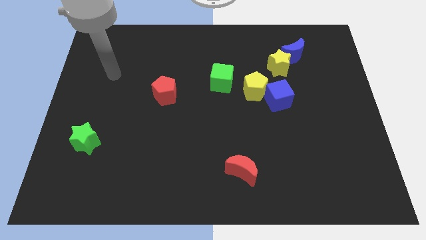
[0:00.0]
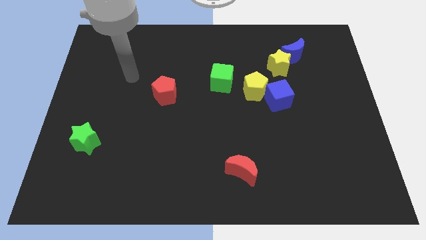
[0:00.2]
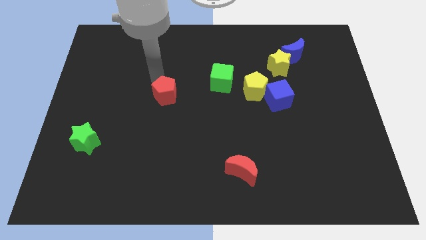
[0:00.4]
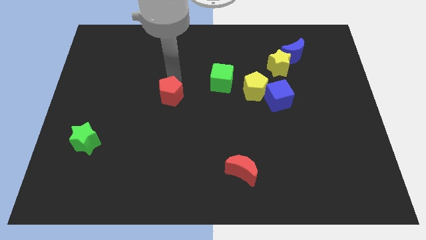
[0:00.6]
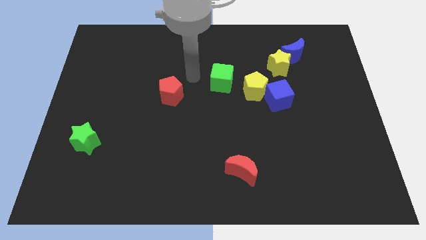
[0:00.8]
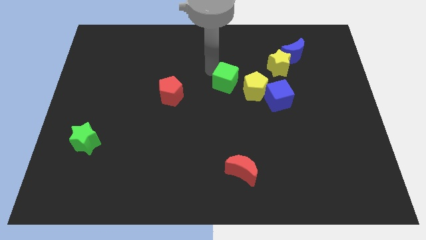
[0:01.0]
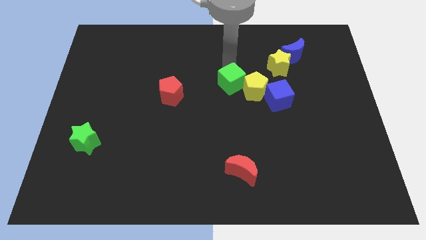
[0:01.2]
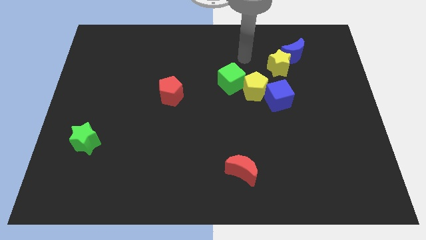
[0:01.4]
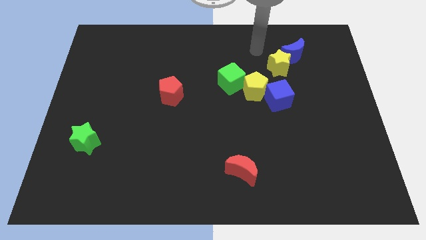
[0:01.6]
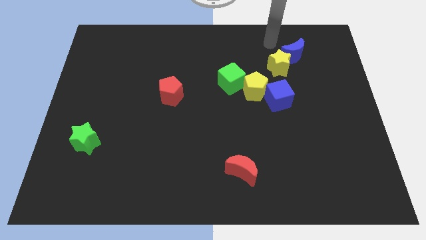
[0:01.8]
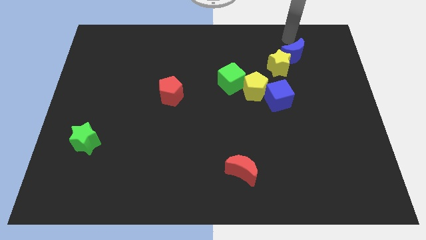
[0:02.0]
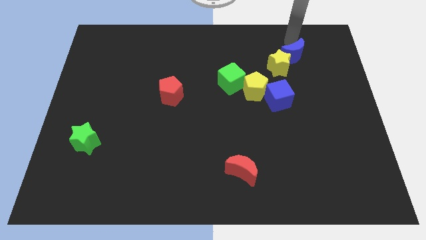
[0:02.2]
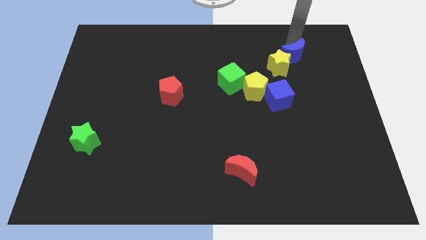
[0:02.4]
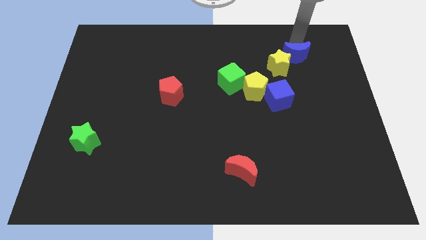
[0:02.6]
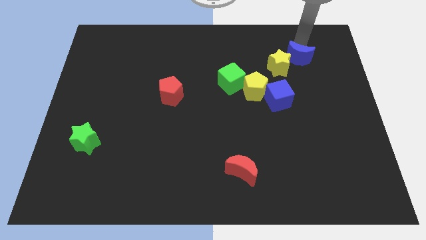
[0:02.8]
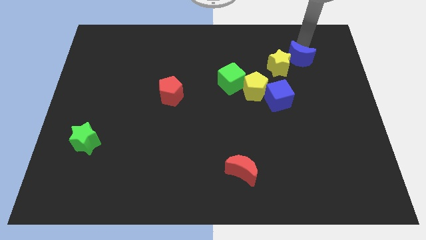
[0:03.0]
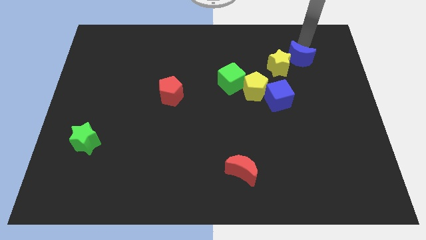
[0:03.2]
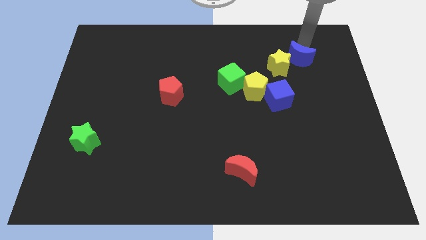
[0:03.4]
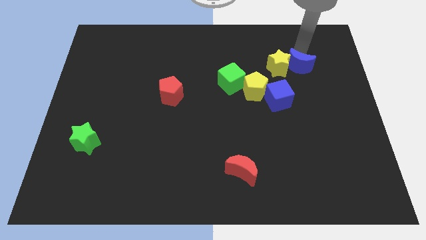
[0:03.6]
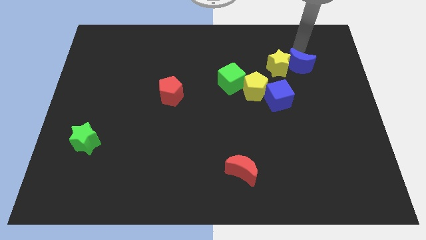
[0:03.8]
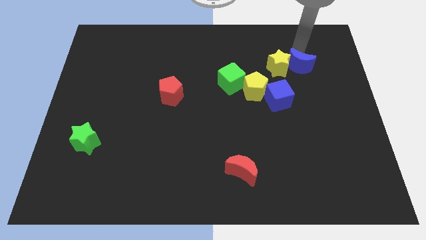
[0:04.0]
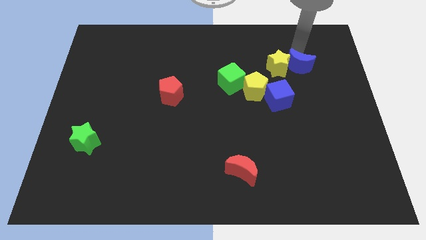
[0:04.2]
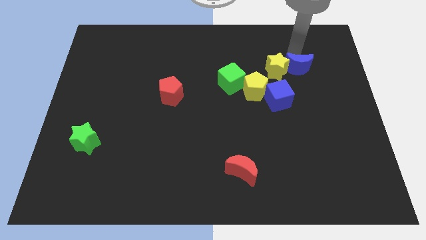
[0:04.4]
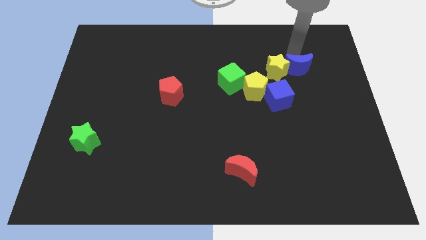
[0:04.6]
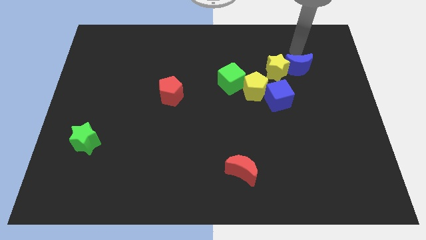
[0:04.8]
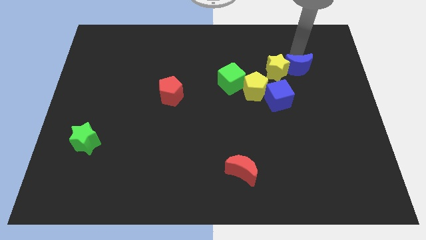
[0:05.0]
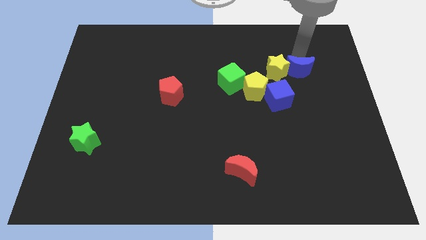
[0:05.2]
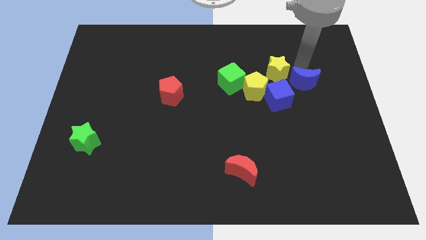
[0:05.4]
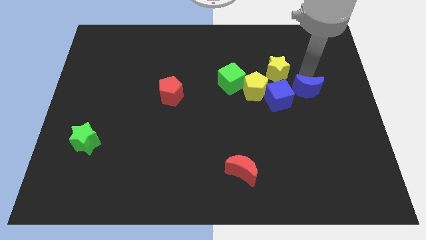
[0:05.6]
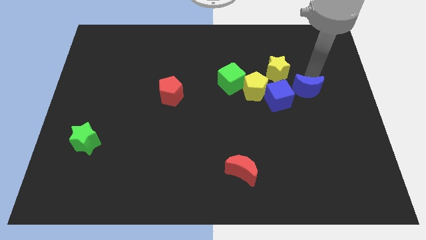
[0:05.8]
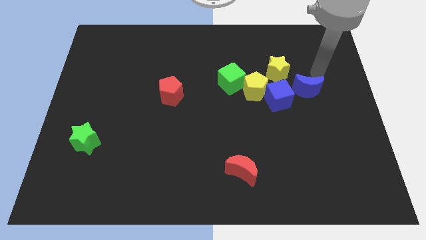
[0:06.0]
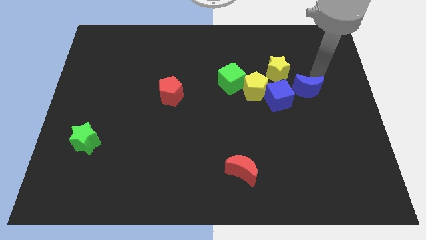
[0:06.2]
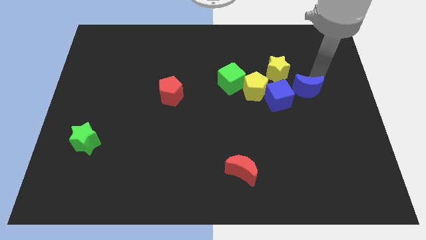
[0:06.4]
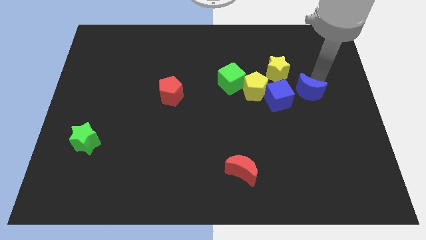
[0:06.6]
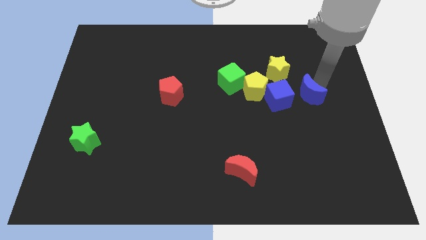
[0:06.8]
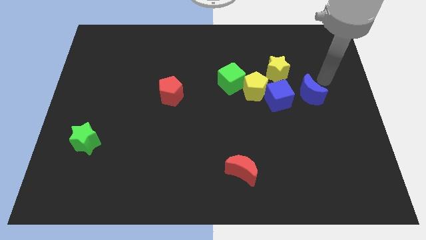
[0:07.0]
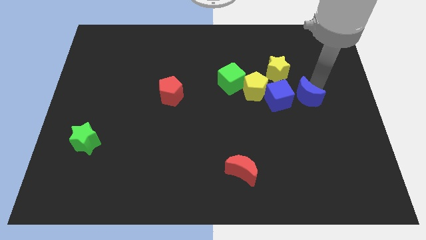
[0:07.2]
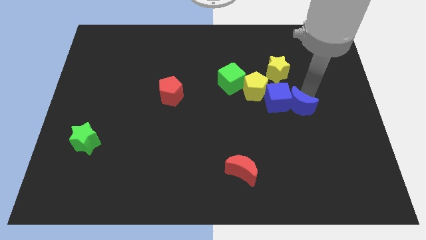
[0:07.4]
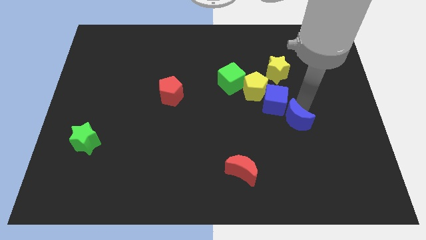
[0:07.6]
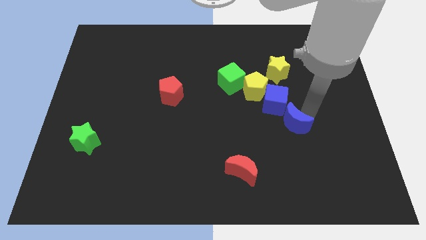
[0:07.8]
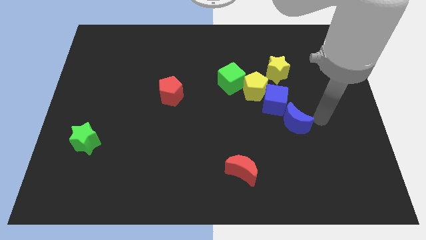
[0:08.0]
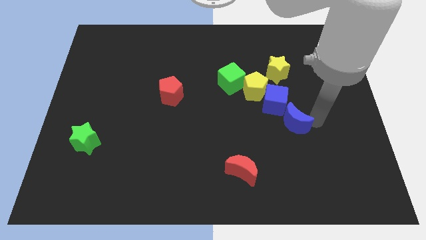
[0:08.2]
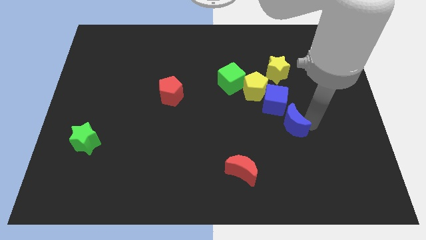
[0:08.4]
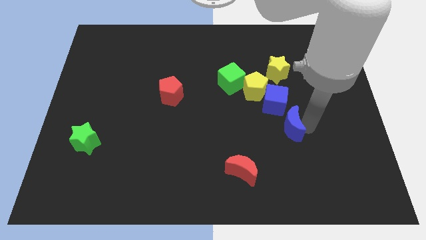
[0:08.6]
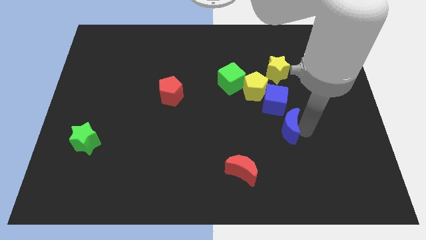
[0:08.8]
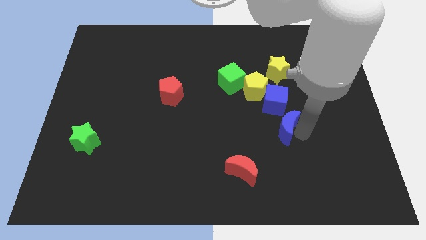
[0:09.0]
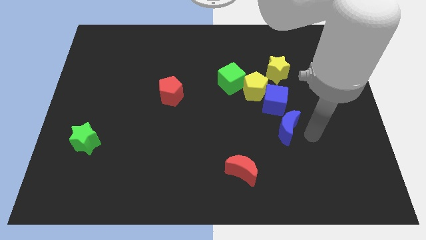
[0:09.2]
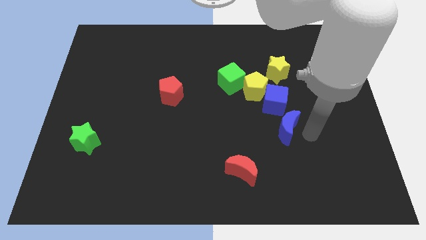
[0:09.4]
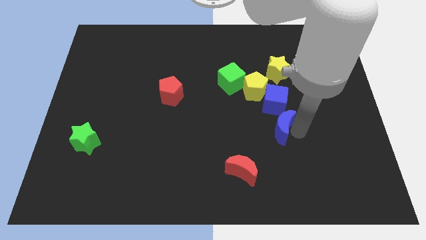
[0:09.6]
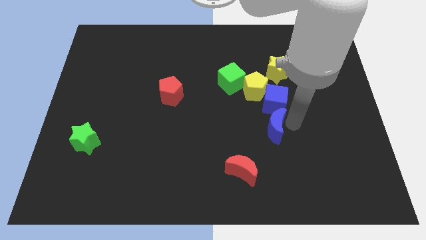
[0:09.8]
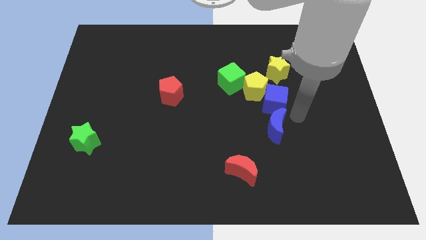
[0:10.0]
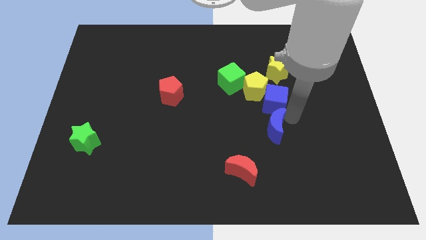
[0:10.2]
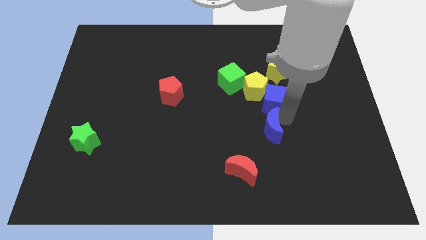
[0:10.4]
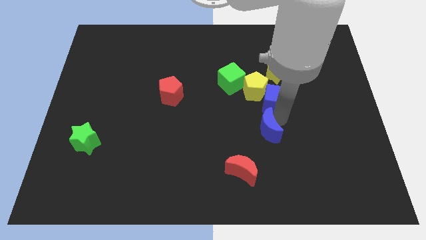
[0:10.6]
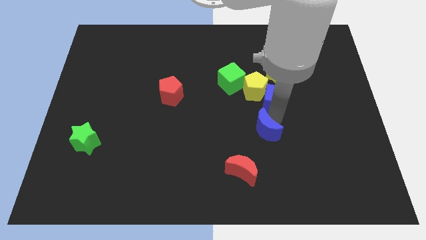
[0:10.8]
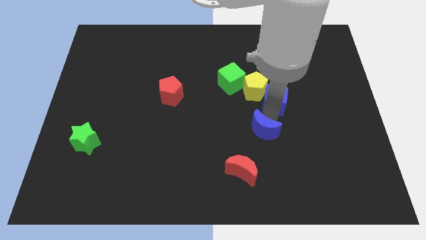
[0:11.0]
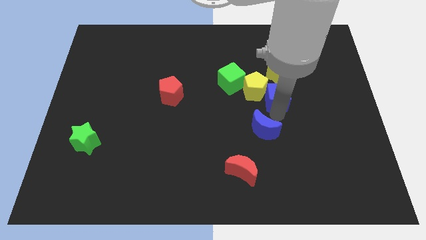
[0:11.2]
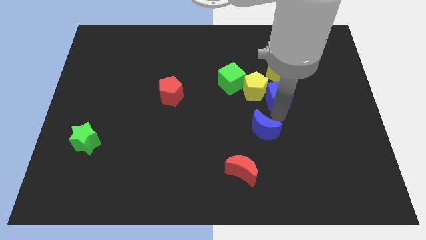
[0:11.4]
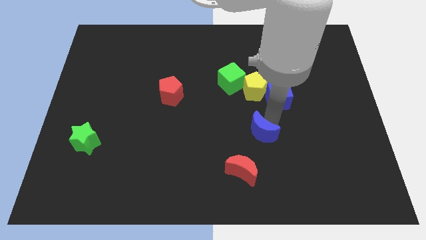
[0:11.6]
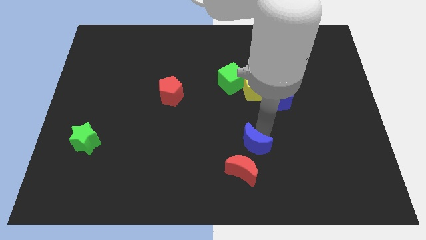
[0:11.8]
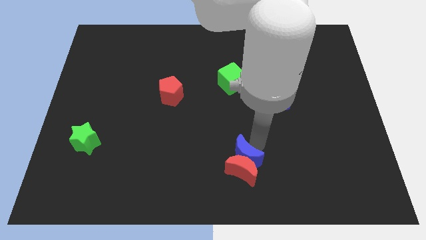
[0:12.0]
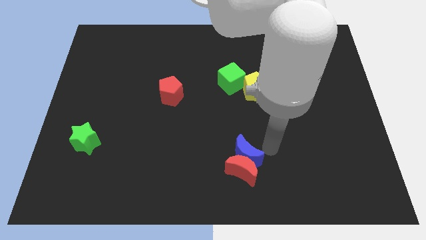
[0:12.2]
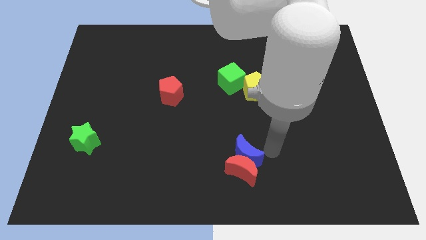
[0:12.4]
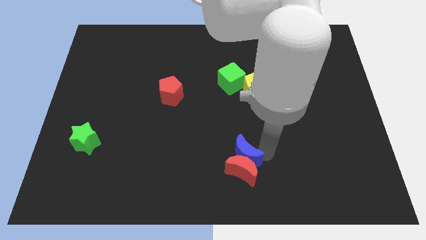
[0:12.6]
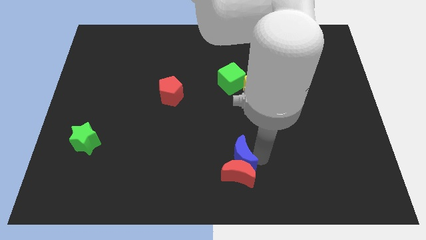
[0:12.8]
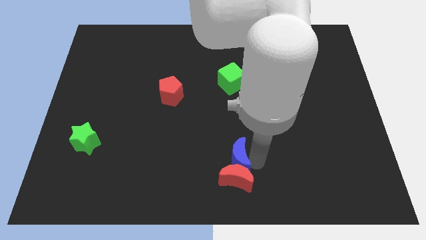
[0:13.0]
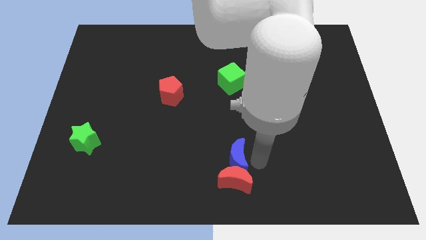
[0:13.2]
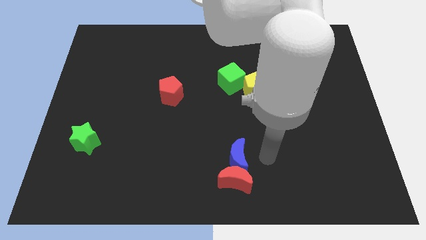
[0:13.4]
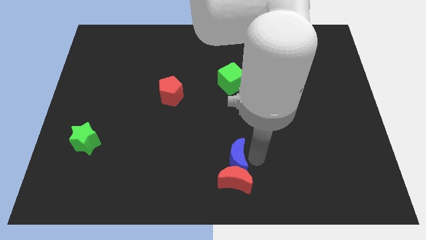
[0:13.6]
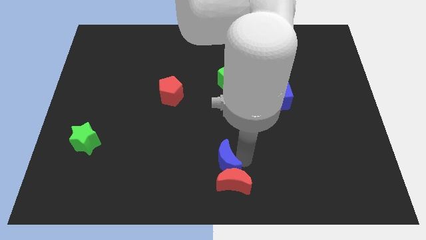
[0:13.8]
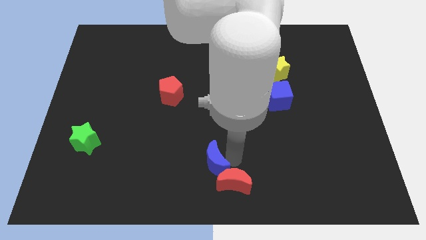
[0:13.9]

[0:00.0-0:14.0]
move the blue moon to the left of the red moon

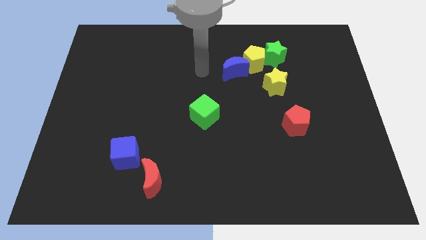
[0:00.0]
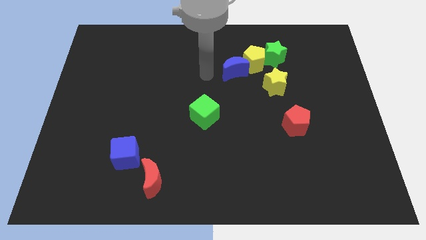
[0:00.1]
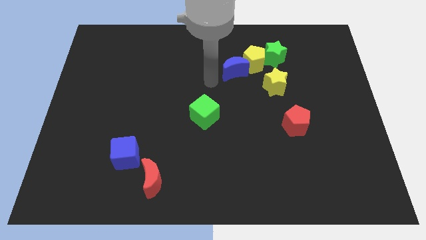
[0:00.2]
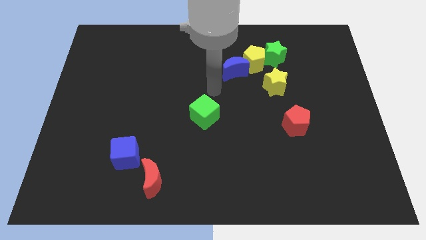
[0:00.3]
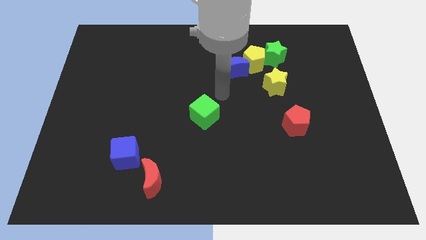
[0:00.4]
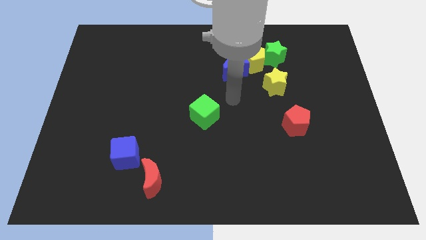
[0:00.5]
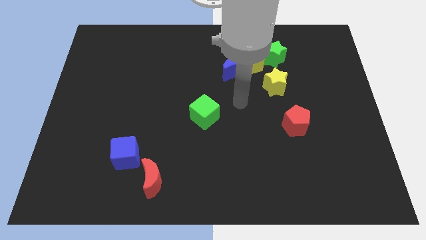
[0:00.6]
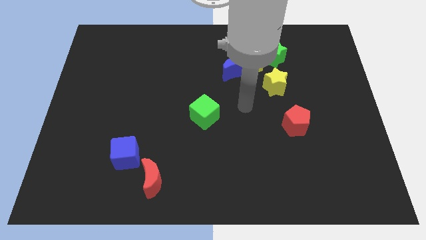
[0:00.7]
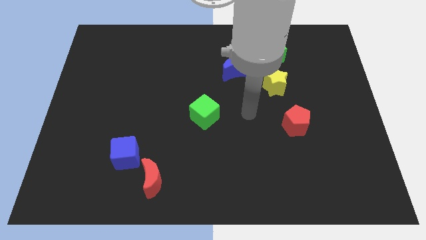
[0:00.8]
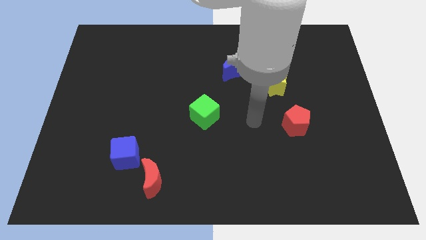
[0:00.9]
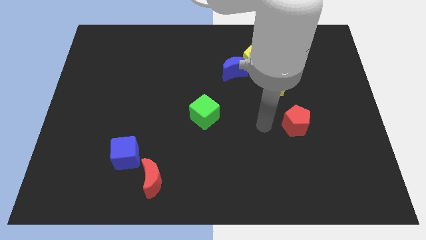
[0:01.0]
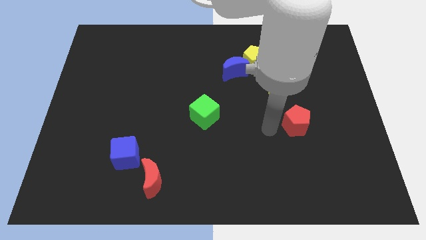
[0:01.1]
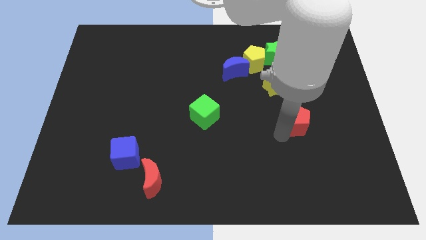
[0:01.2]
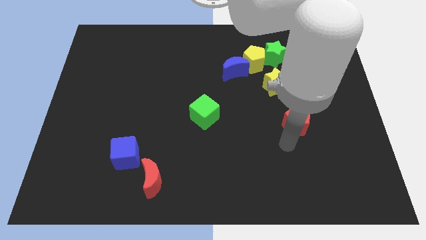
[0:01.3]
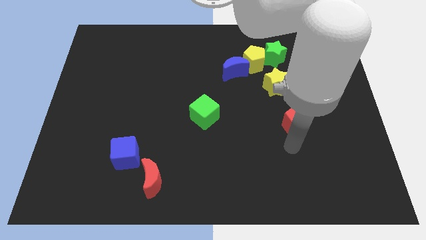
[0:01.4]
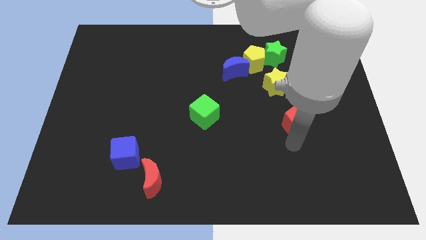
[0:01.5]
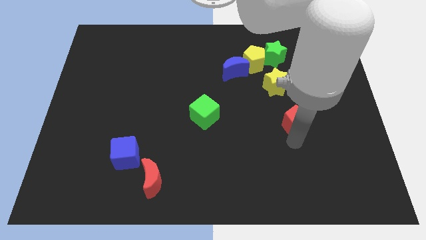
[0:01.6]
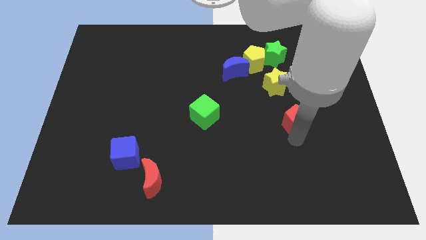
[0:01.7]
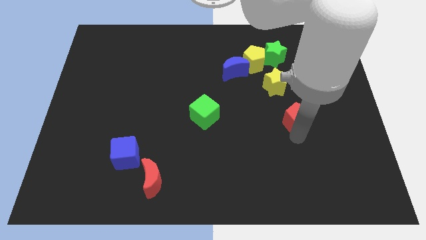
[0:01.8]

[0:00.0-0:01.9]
move the red pentagon to the bottom right of the yellow star
